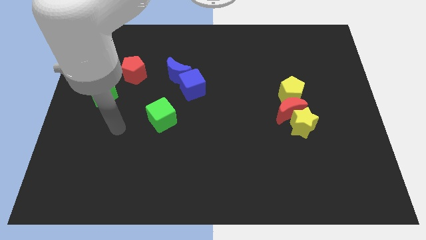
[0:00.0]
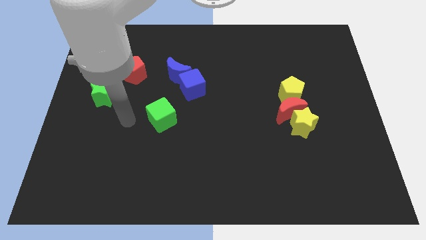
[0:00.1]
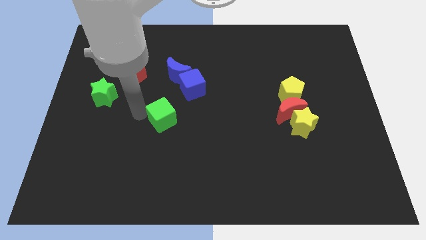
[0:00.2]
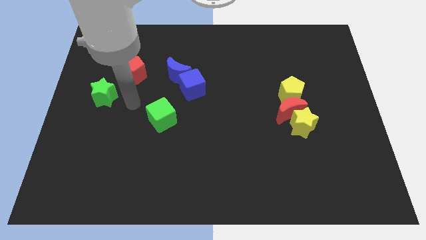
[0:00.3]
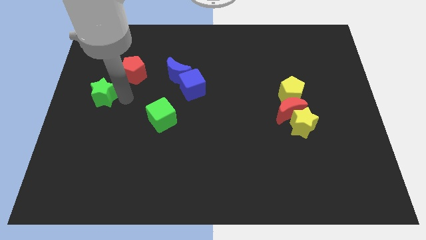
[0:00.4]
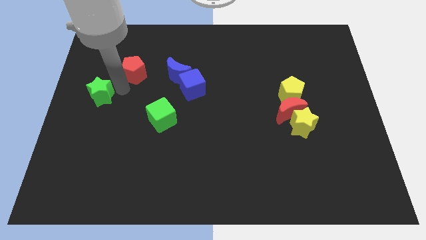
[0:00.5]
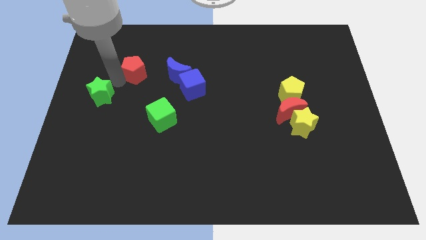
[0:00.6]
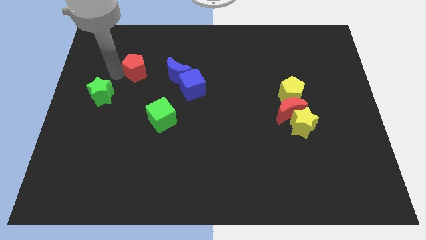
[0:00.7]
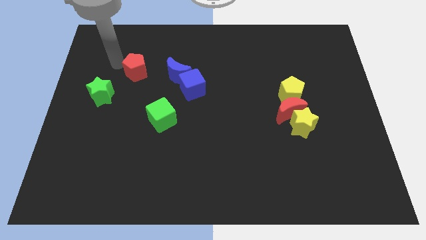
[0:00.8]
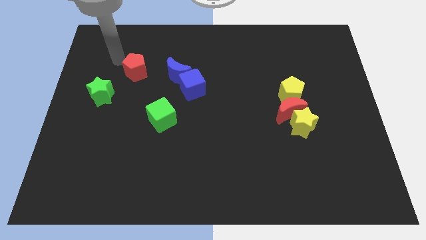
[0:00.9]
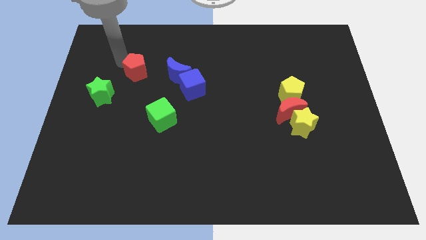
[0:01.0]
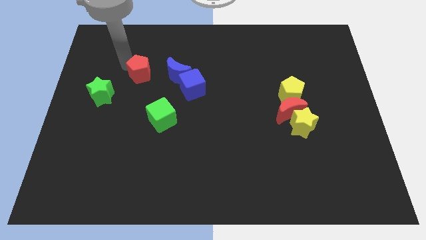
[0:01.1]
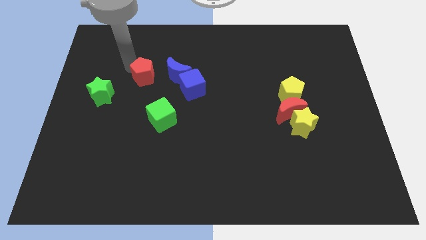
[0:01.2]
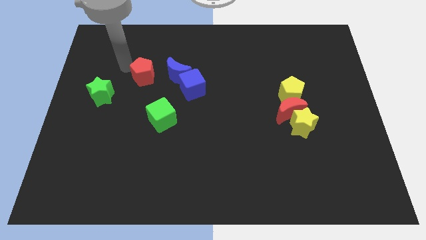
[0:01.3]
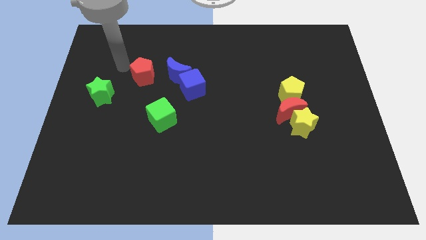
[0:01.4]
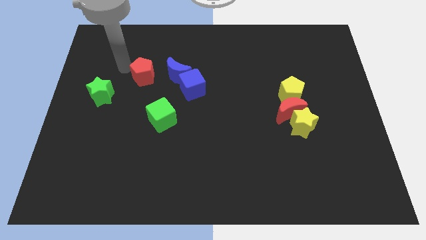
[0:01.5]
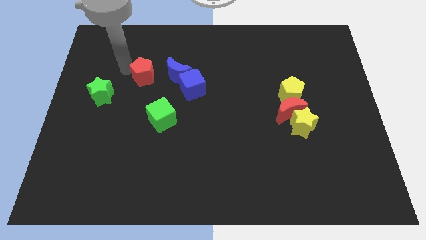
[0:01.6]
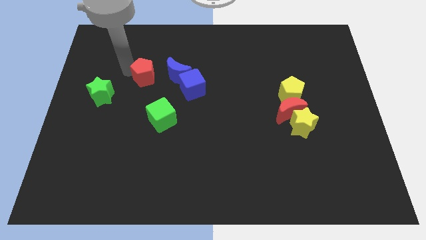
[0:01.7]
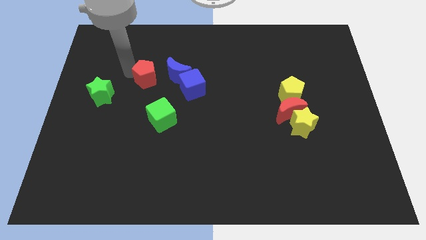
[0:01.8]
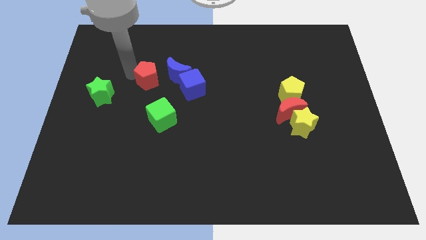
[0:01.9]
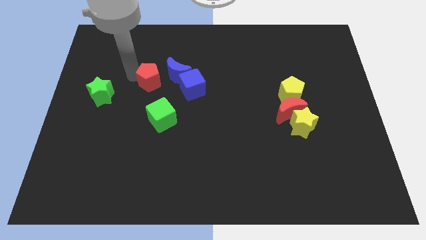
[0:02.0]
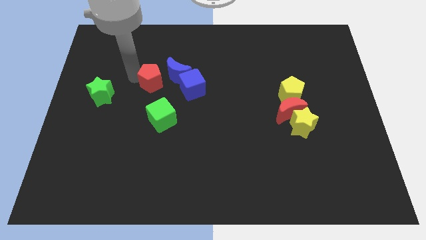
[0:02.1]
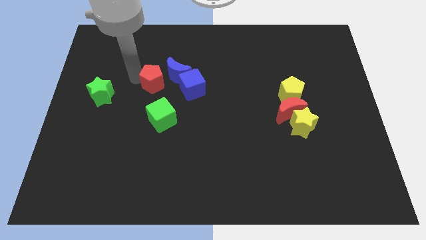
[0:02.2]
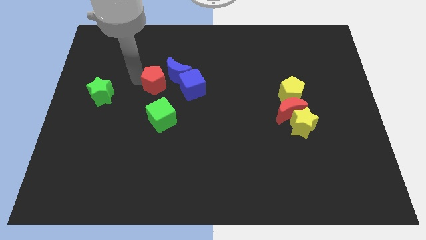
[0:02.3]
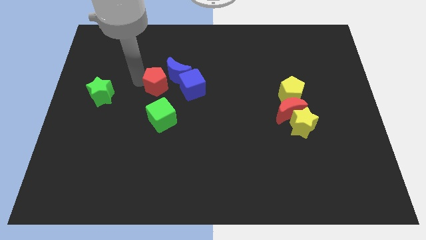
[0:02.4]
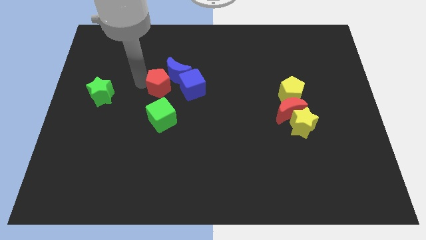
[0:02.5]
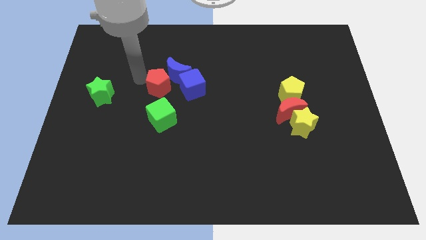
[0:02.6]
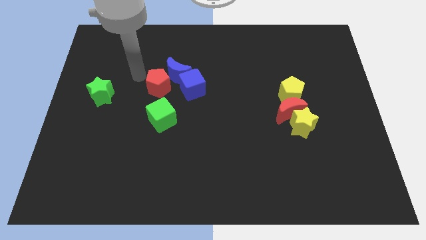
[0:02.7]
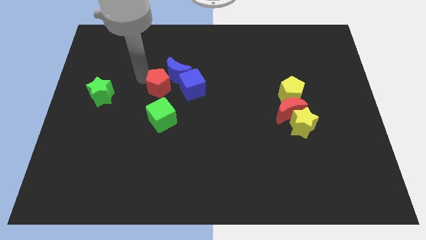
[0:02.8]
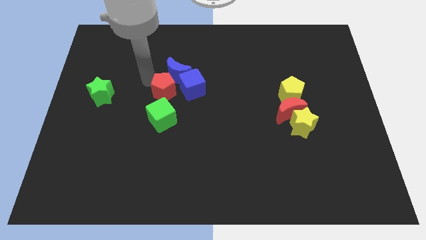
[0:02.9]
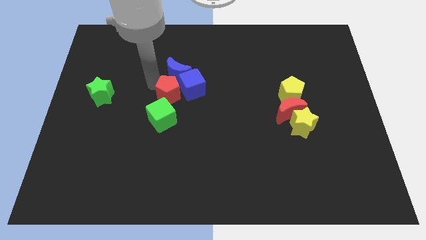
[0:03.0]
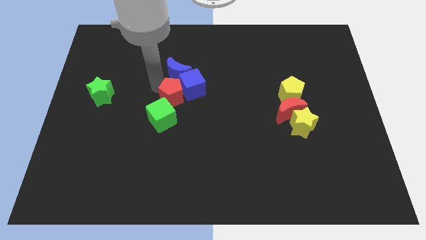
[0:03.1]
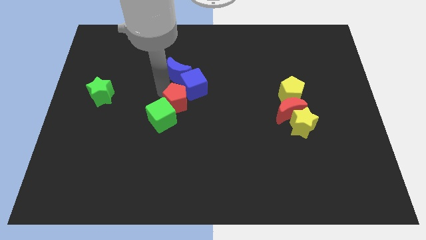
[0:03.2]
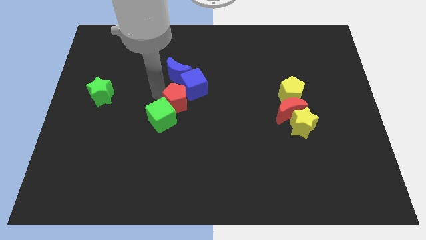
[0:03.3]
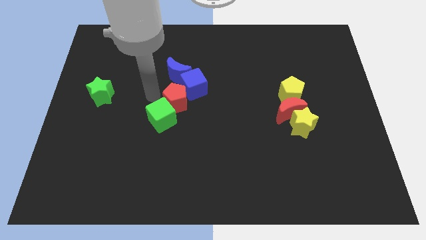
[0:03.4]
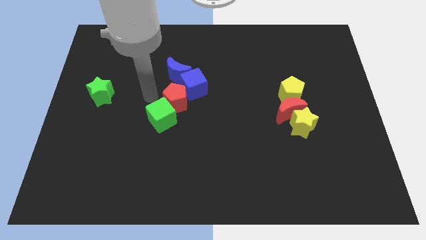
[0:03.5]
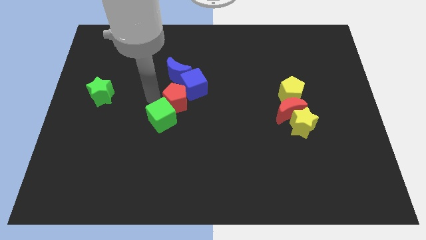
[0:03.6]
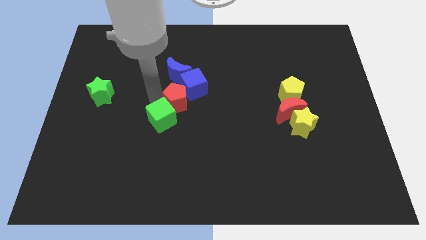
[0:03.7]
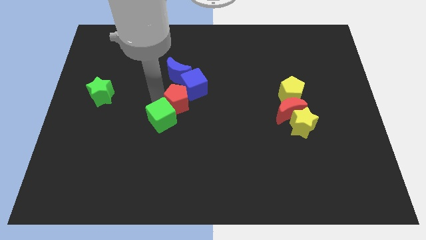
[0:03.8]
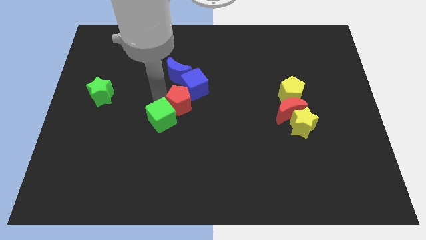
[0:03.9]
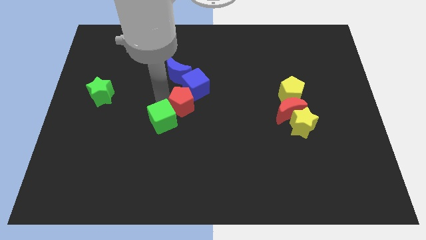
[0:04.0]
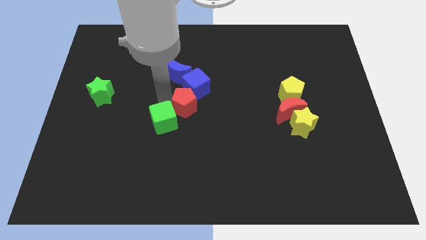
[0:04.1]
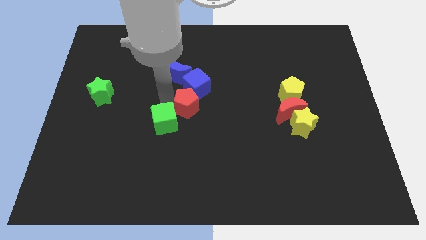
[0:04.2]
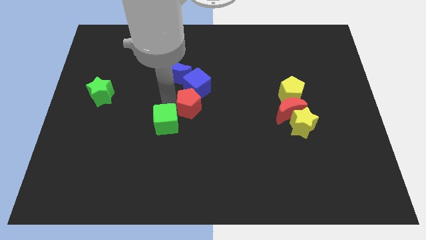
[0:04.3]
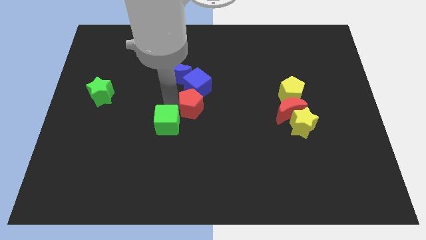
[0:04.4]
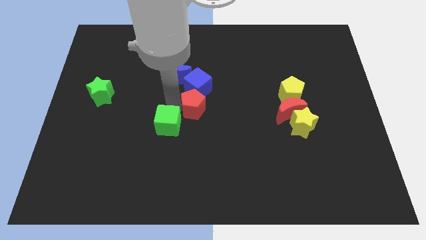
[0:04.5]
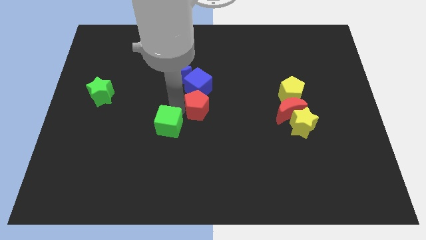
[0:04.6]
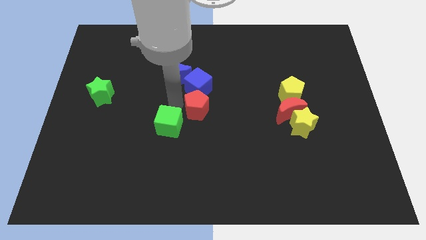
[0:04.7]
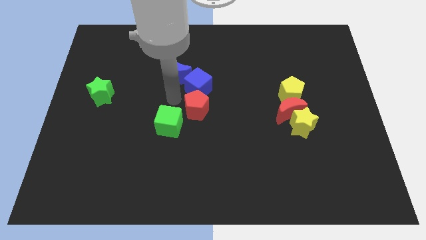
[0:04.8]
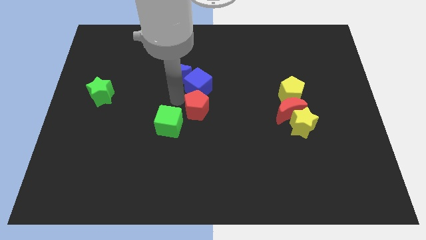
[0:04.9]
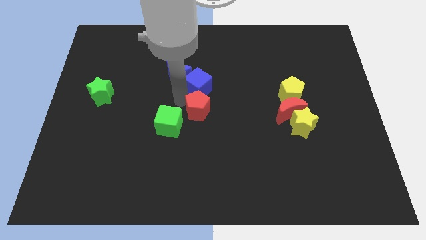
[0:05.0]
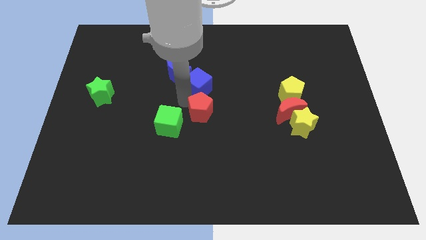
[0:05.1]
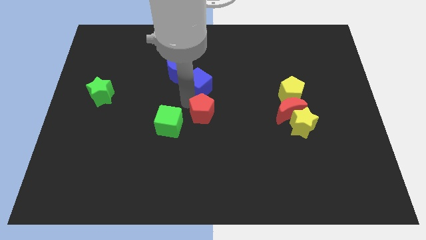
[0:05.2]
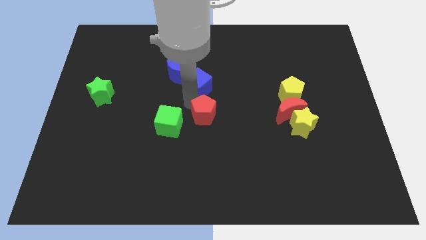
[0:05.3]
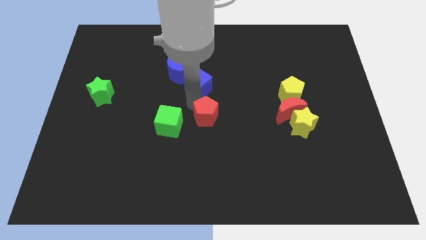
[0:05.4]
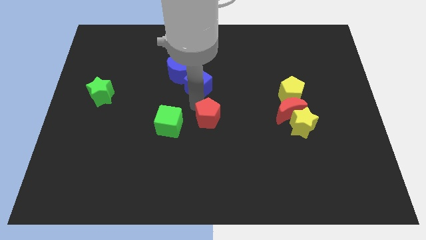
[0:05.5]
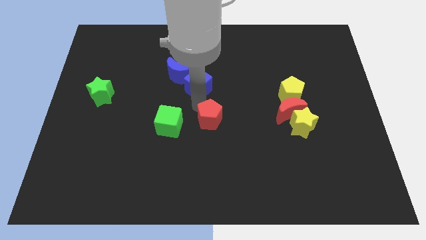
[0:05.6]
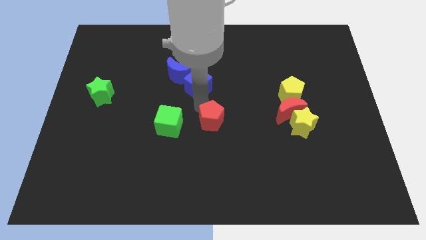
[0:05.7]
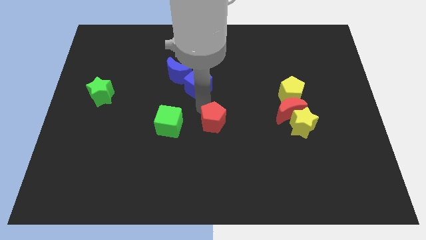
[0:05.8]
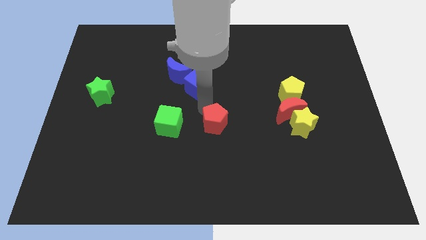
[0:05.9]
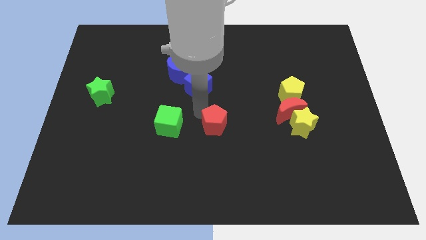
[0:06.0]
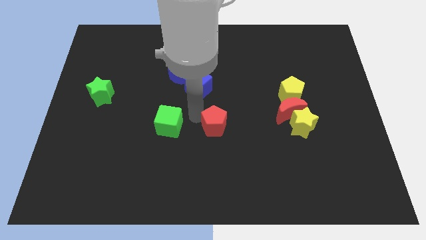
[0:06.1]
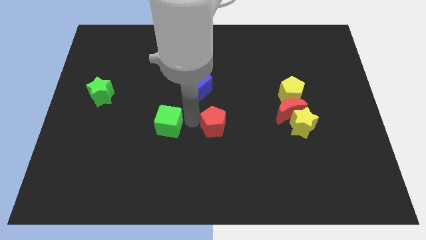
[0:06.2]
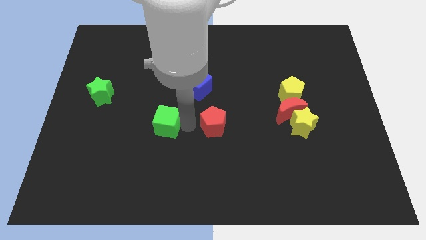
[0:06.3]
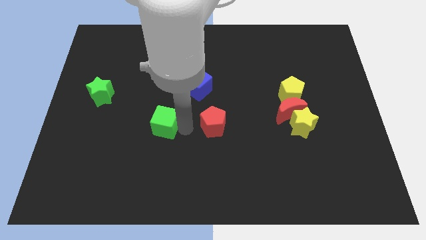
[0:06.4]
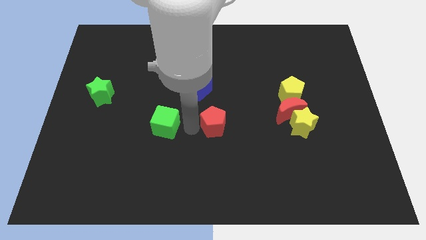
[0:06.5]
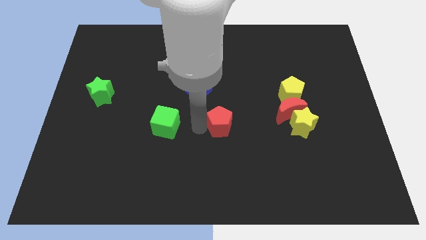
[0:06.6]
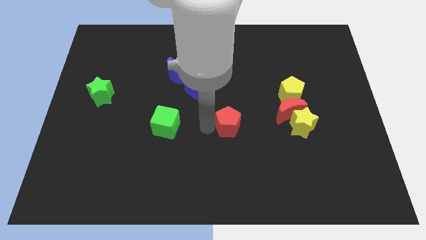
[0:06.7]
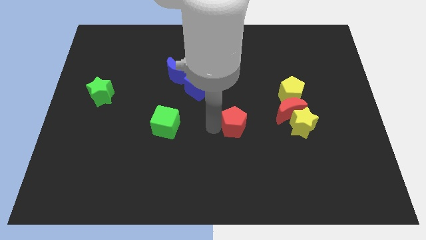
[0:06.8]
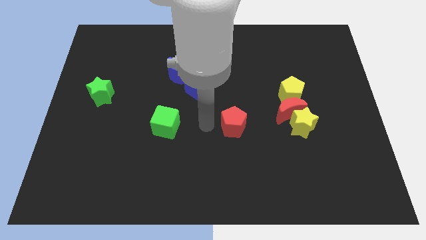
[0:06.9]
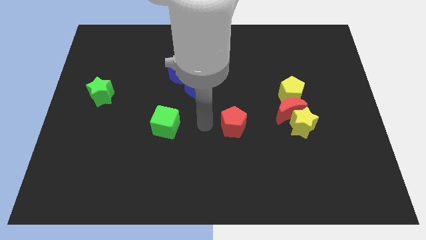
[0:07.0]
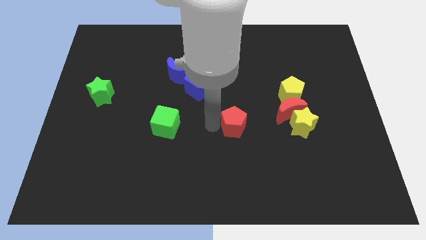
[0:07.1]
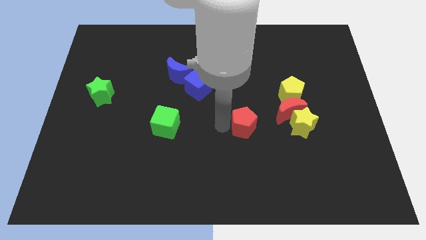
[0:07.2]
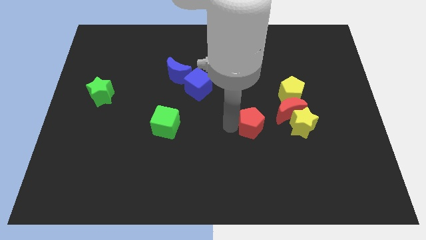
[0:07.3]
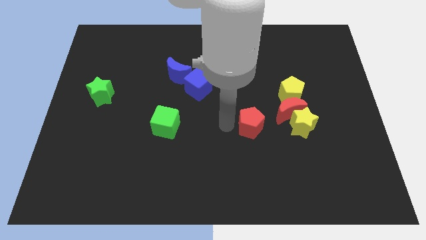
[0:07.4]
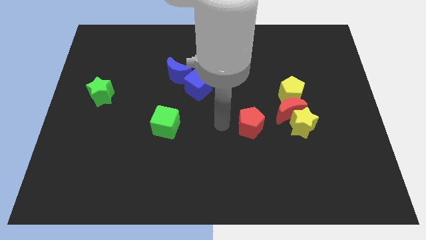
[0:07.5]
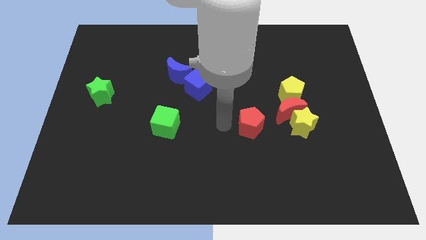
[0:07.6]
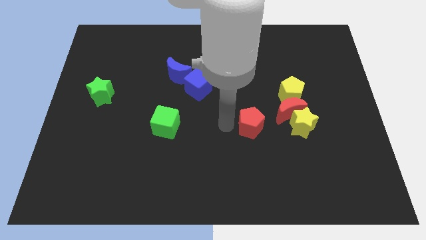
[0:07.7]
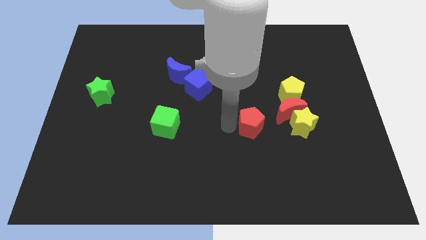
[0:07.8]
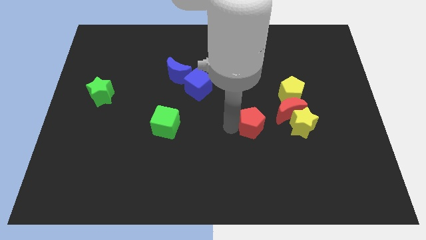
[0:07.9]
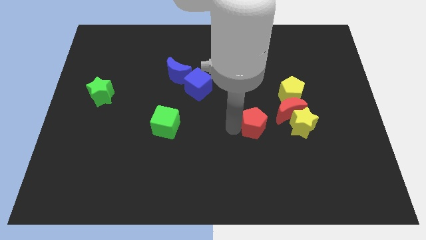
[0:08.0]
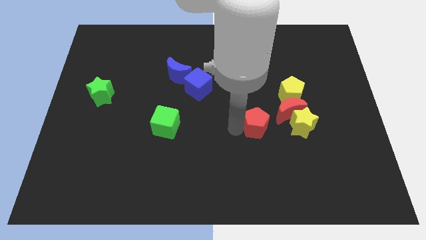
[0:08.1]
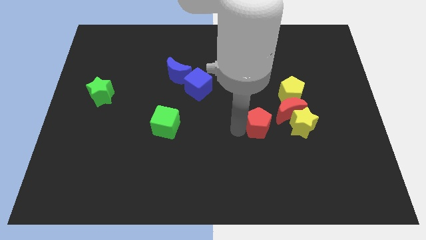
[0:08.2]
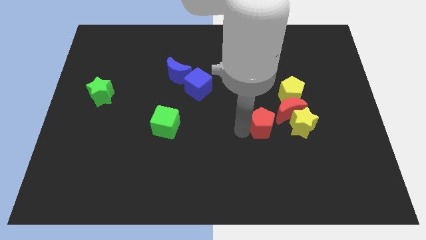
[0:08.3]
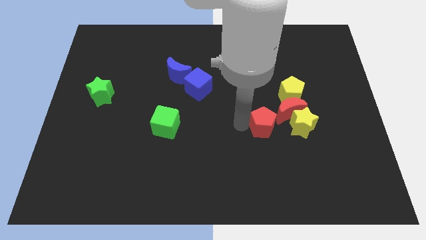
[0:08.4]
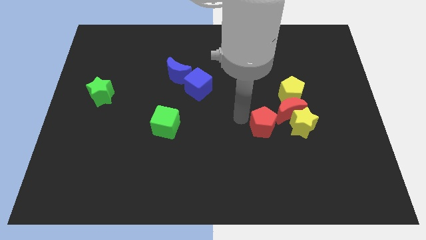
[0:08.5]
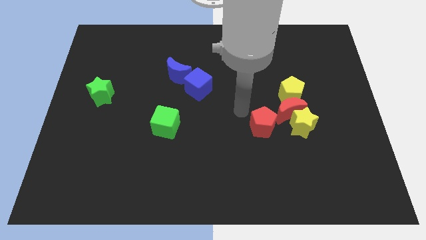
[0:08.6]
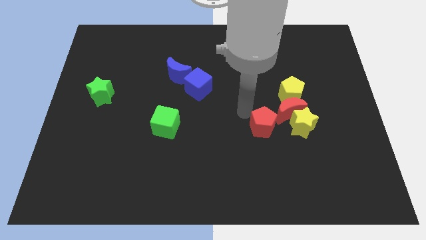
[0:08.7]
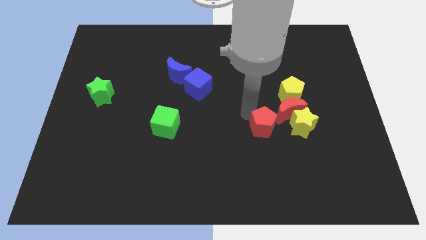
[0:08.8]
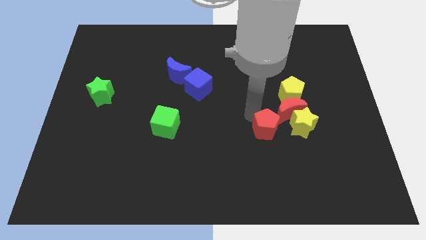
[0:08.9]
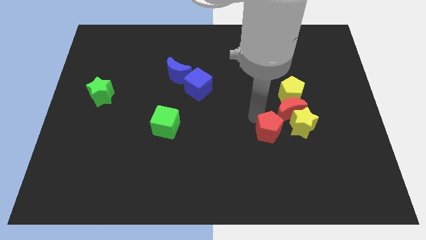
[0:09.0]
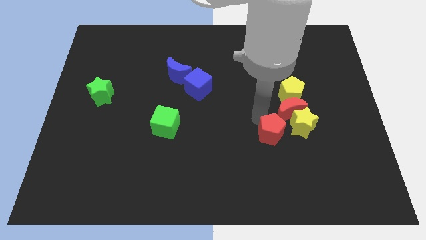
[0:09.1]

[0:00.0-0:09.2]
push the red pentagon below the red moon
